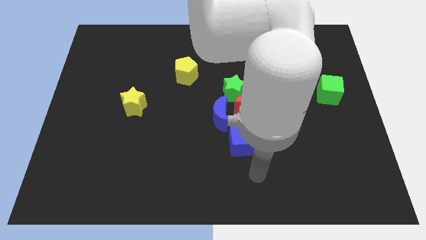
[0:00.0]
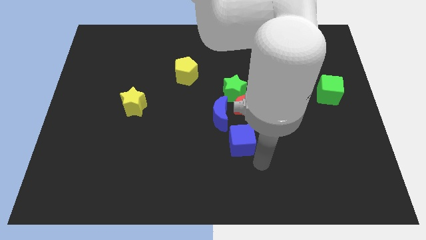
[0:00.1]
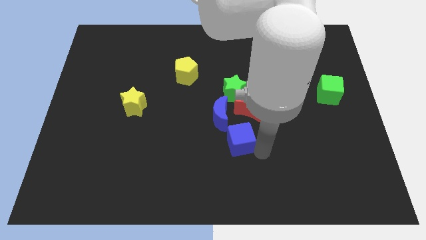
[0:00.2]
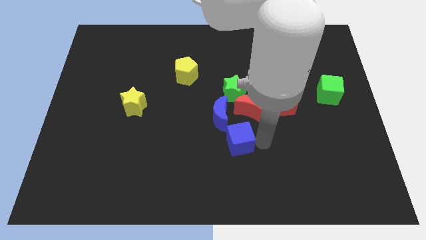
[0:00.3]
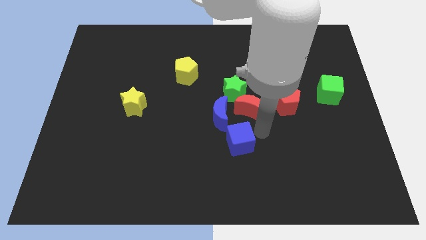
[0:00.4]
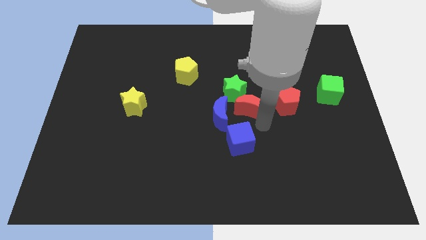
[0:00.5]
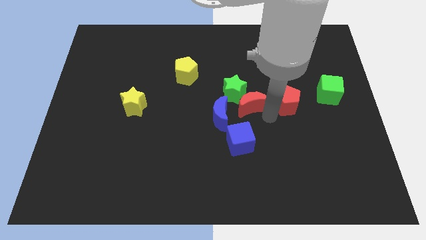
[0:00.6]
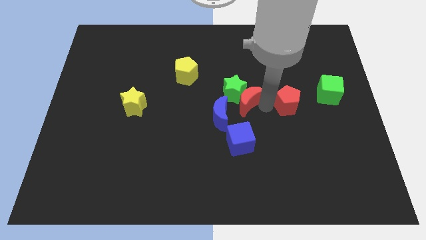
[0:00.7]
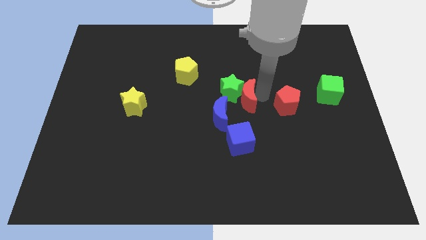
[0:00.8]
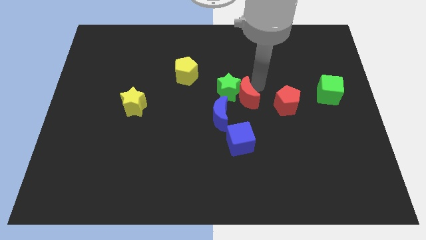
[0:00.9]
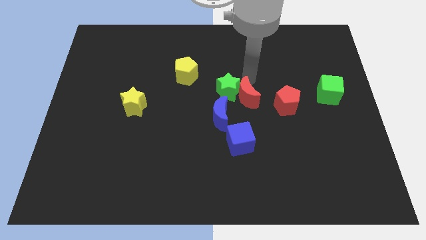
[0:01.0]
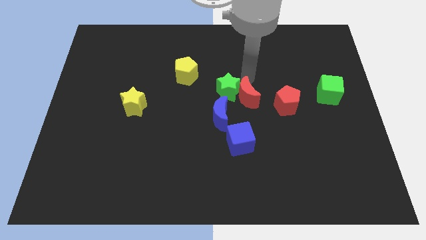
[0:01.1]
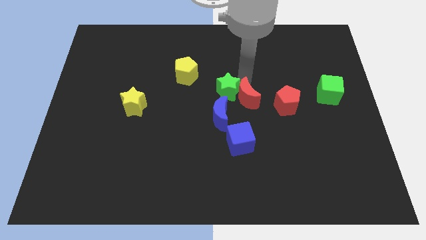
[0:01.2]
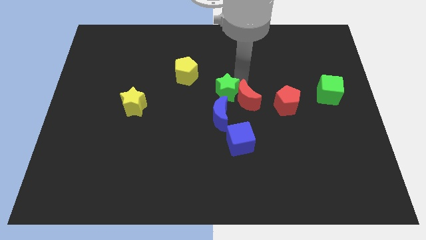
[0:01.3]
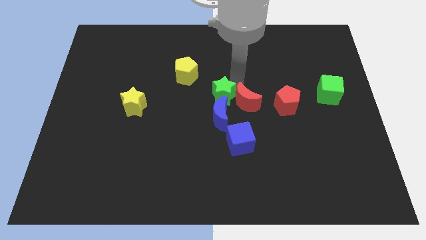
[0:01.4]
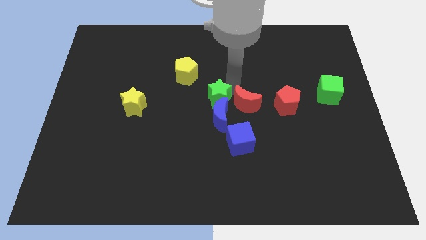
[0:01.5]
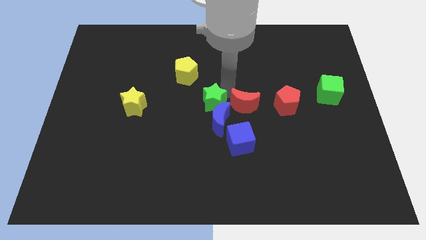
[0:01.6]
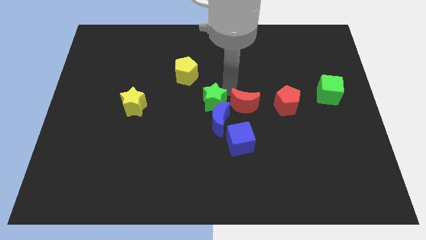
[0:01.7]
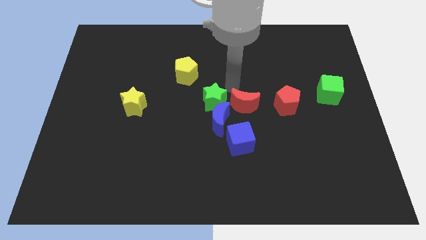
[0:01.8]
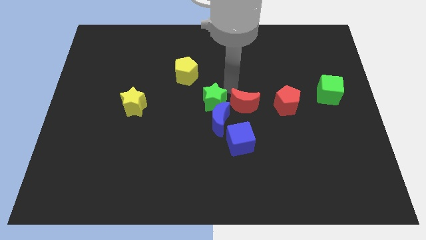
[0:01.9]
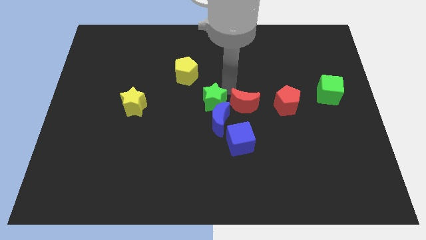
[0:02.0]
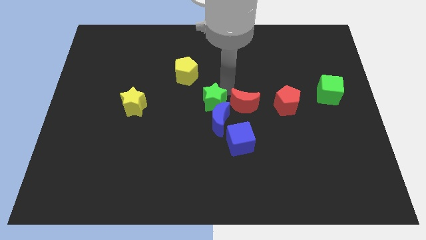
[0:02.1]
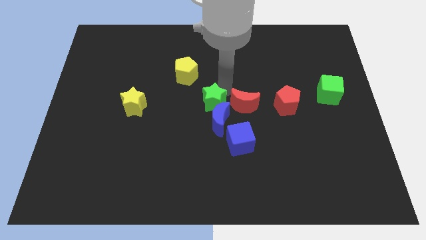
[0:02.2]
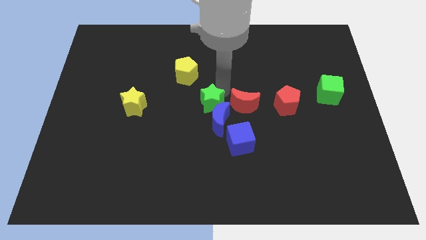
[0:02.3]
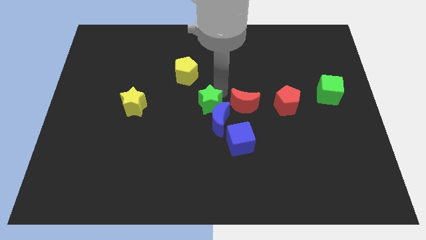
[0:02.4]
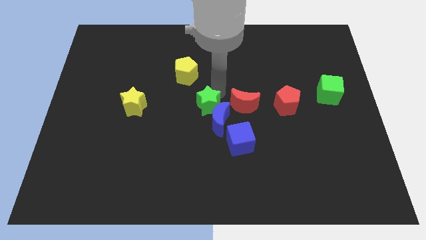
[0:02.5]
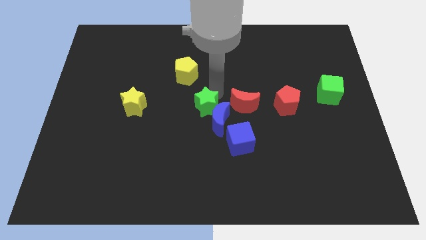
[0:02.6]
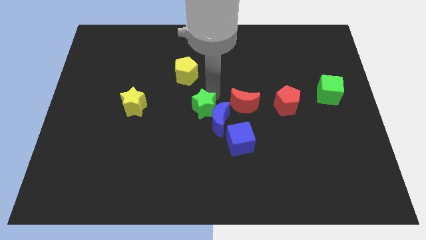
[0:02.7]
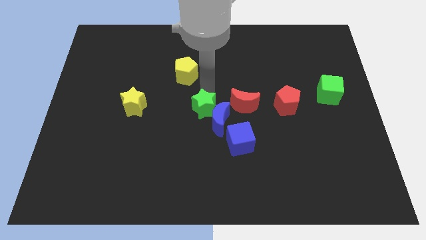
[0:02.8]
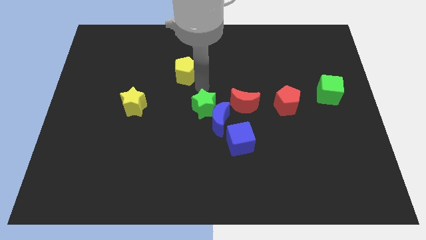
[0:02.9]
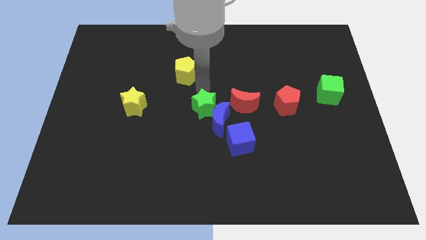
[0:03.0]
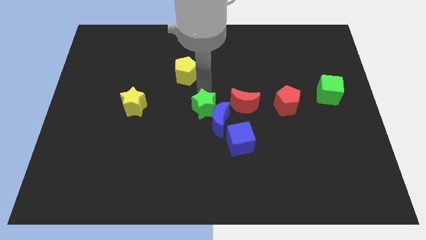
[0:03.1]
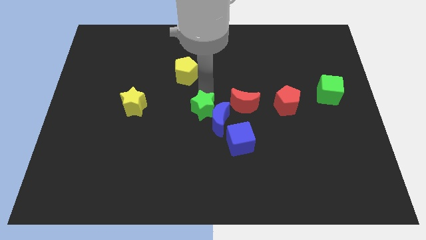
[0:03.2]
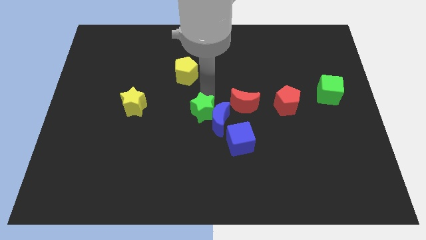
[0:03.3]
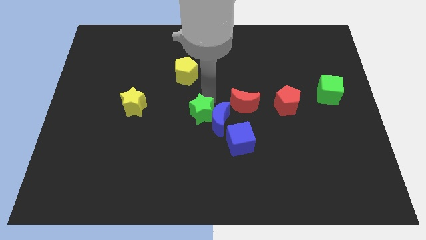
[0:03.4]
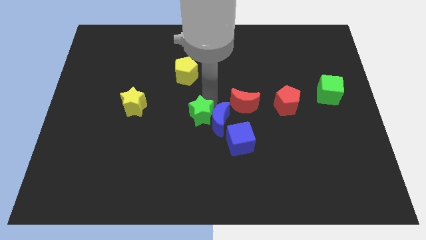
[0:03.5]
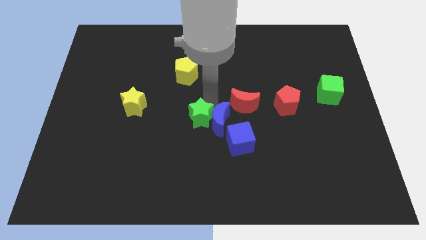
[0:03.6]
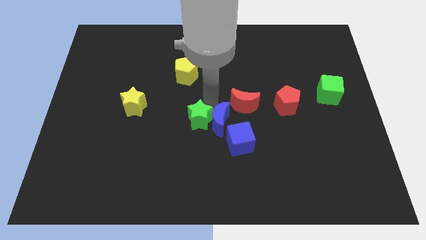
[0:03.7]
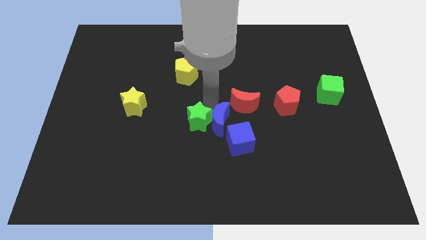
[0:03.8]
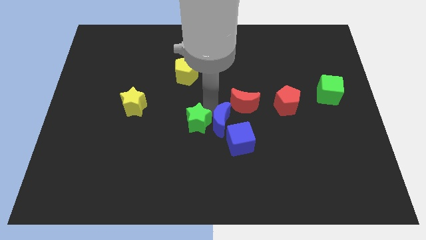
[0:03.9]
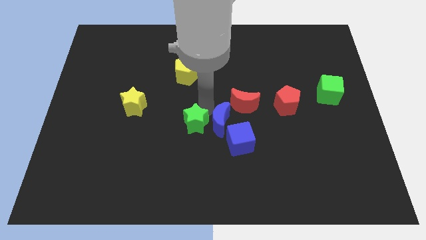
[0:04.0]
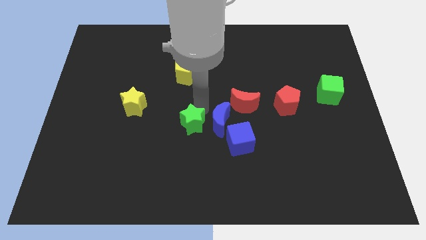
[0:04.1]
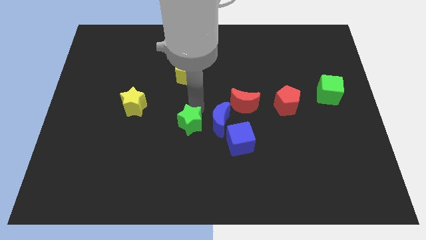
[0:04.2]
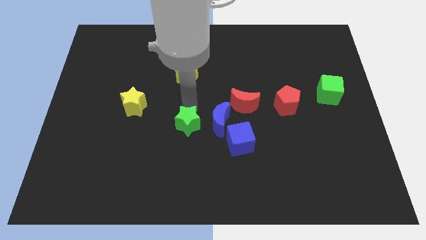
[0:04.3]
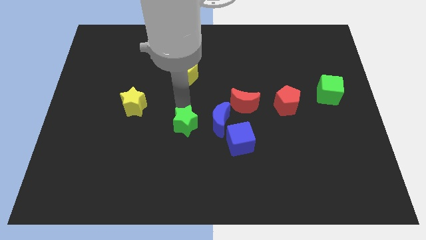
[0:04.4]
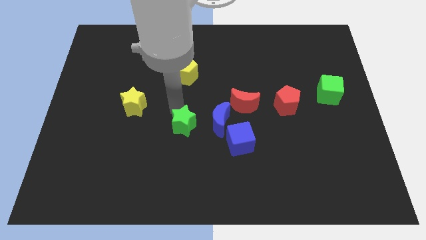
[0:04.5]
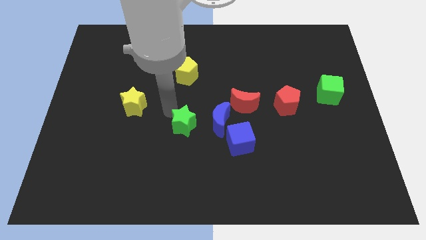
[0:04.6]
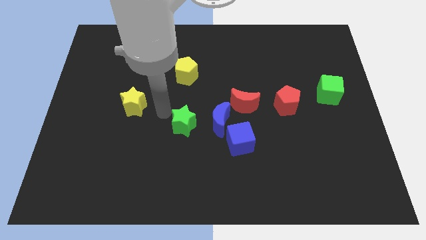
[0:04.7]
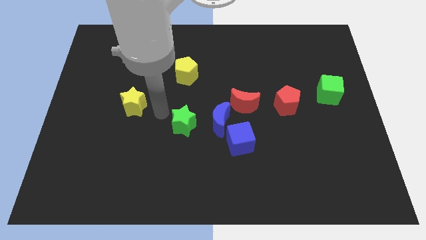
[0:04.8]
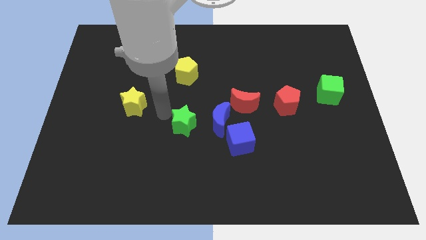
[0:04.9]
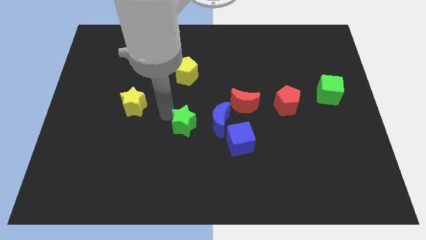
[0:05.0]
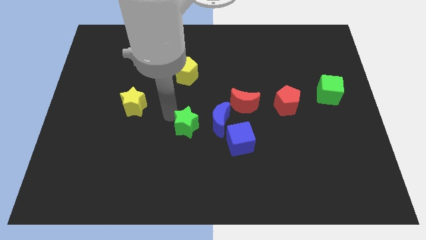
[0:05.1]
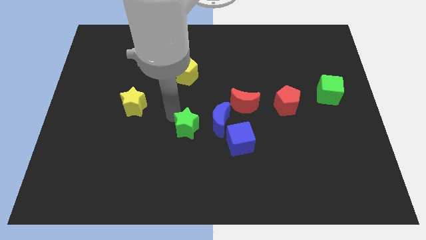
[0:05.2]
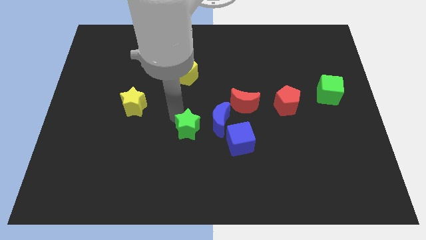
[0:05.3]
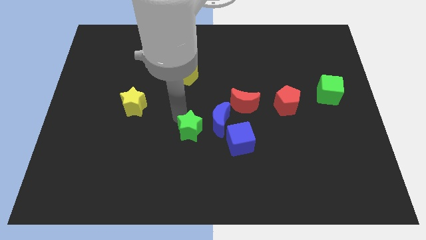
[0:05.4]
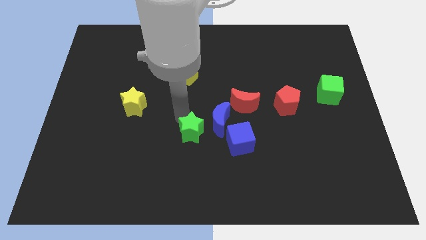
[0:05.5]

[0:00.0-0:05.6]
slide the green star slightly down

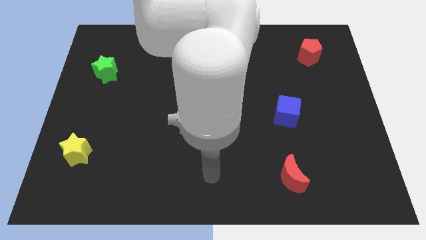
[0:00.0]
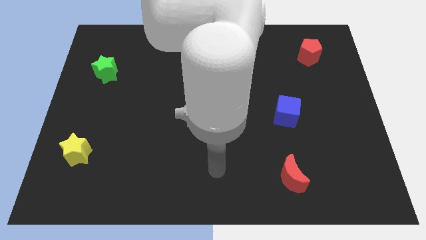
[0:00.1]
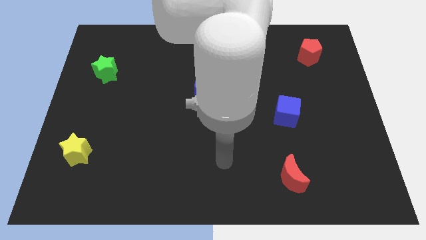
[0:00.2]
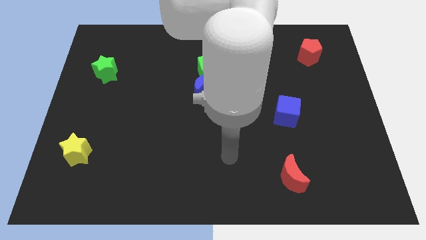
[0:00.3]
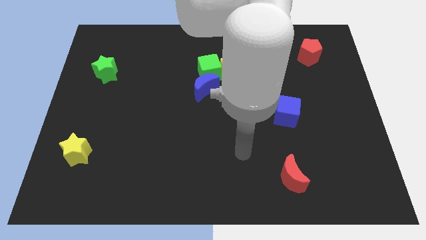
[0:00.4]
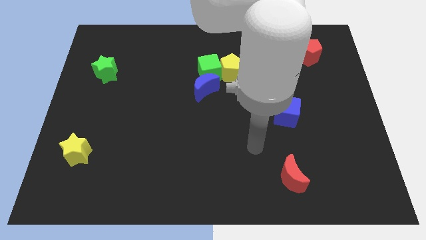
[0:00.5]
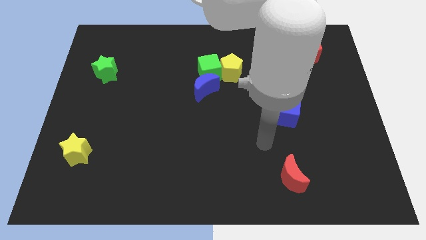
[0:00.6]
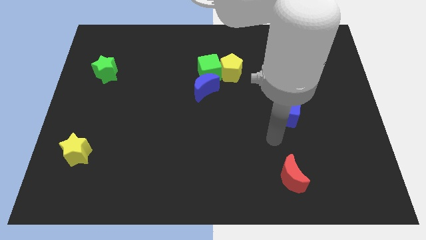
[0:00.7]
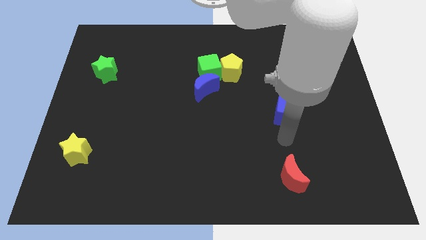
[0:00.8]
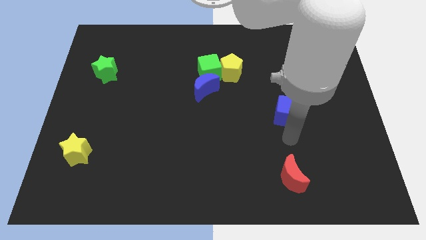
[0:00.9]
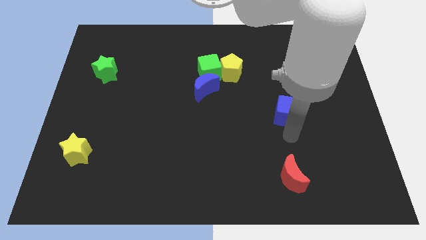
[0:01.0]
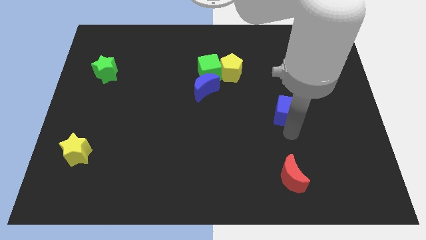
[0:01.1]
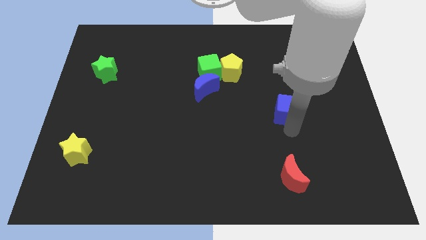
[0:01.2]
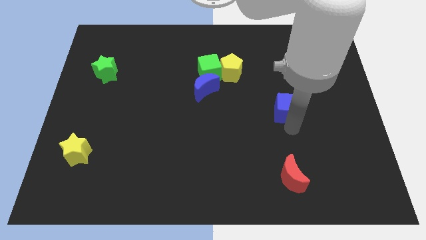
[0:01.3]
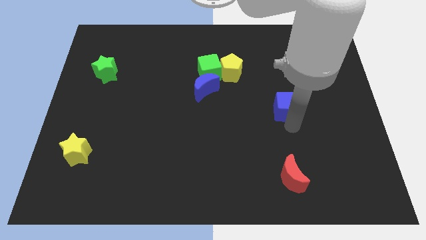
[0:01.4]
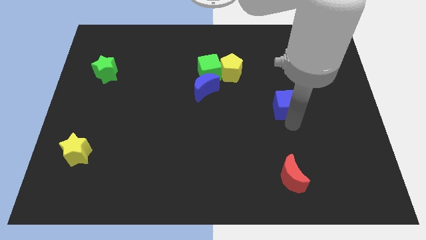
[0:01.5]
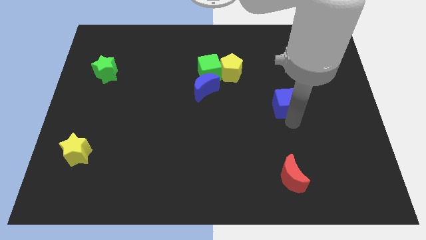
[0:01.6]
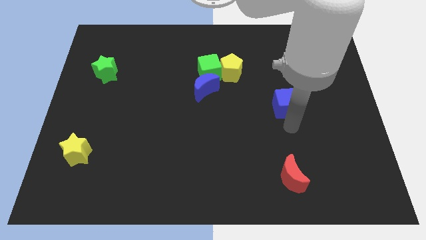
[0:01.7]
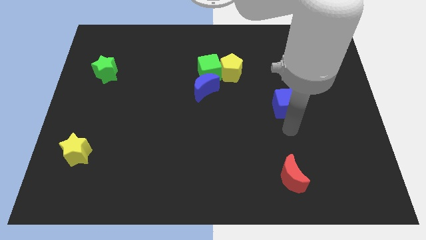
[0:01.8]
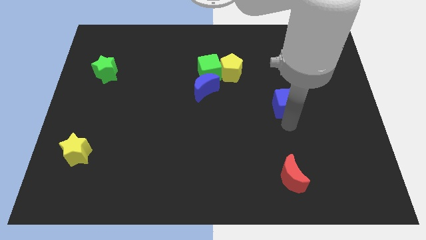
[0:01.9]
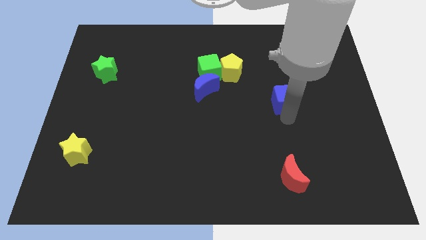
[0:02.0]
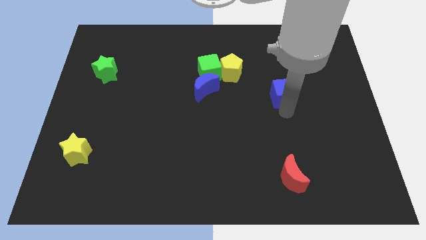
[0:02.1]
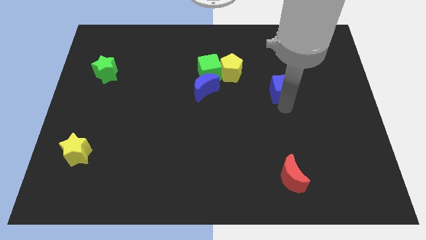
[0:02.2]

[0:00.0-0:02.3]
slightly slide the blue cube up
